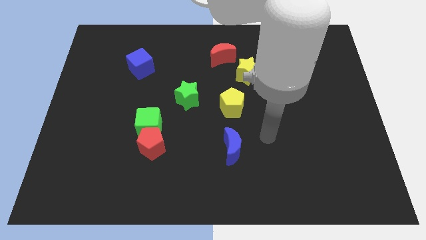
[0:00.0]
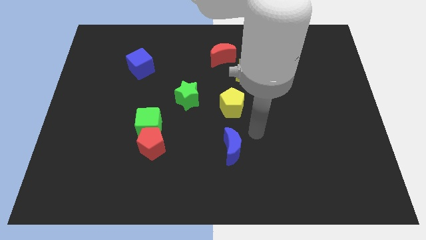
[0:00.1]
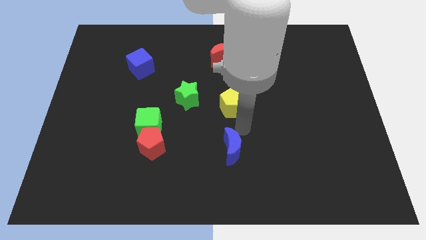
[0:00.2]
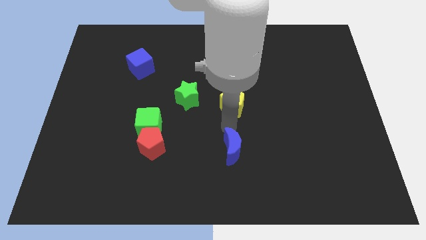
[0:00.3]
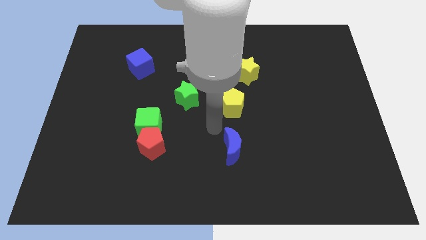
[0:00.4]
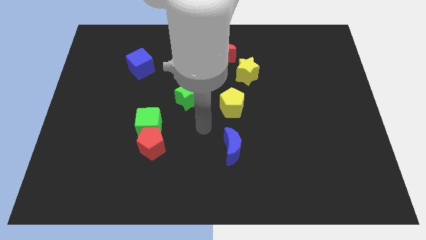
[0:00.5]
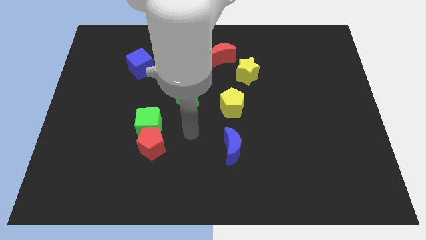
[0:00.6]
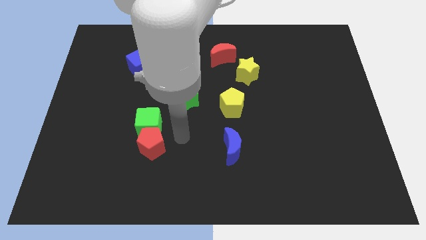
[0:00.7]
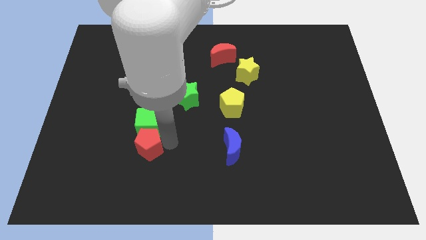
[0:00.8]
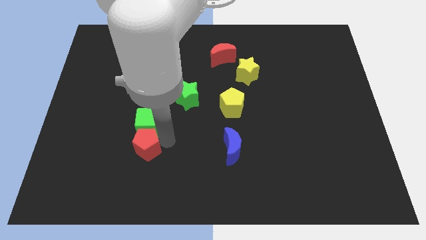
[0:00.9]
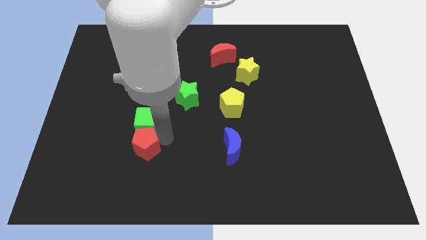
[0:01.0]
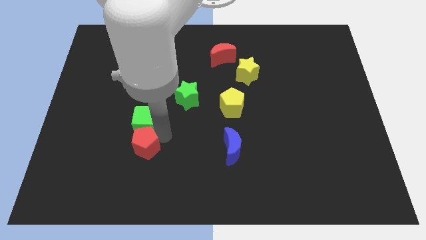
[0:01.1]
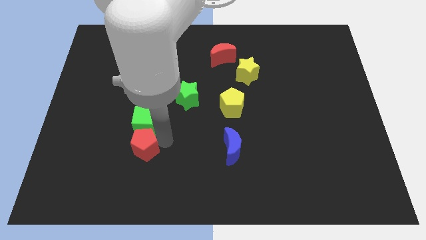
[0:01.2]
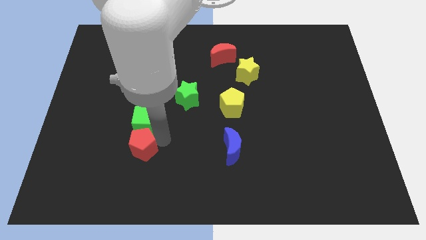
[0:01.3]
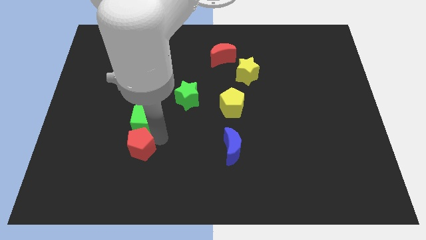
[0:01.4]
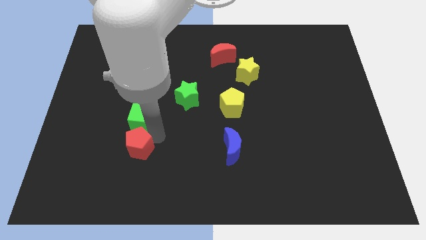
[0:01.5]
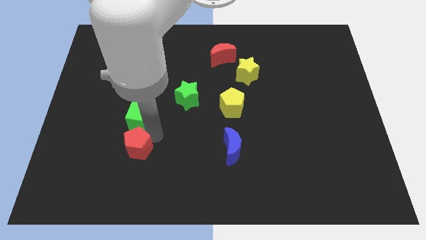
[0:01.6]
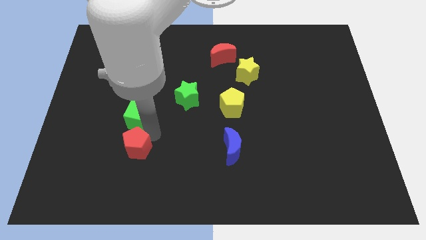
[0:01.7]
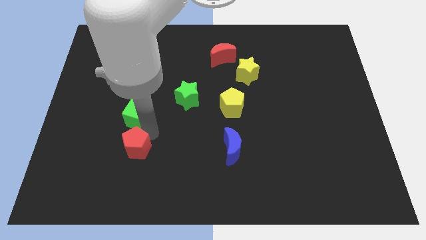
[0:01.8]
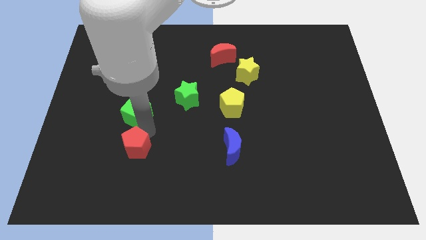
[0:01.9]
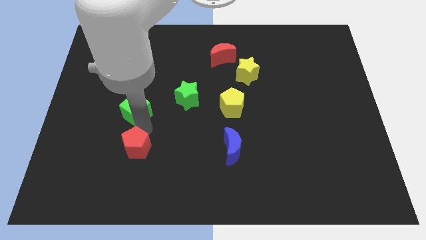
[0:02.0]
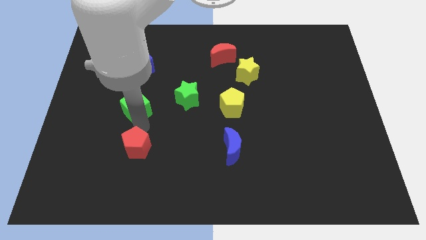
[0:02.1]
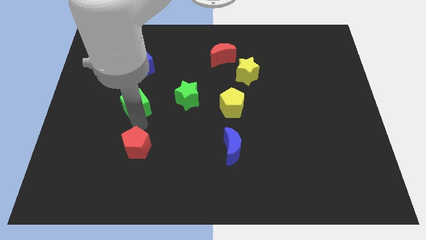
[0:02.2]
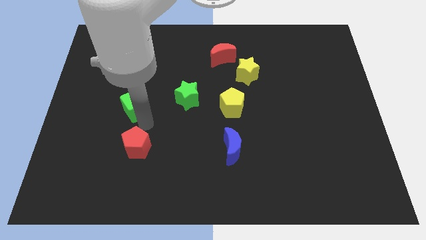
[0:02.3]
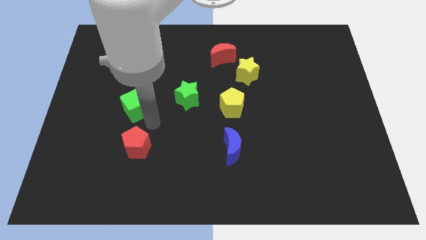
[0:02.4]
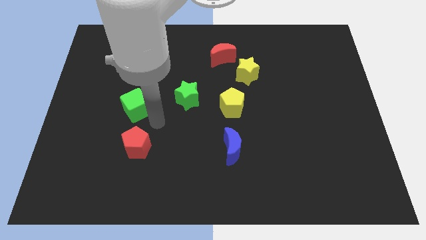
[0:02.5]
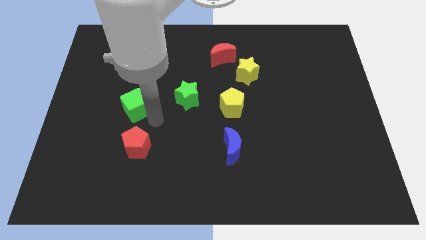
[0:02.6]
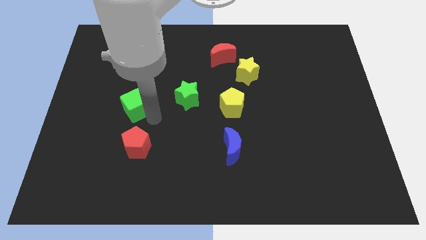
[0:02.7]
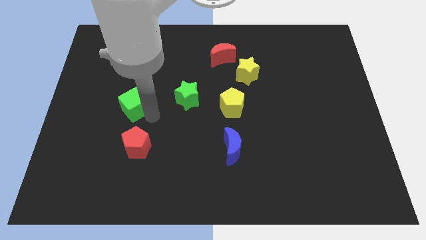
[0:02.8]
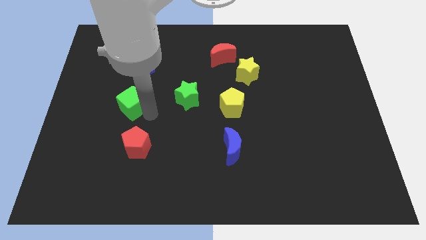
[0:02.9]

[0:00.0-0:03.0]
push the green cube diagonally up and left somewhat

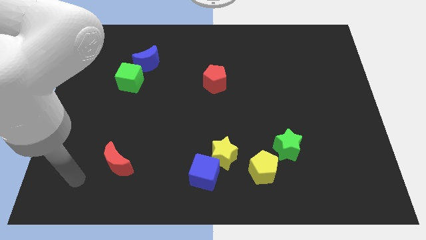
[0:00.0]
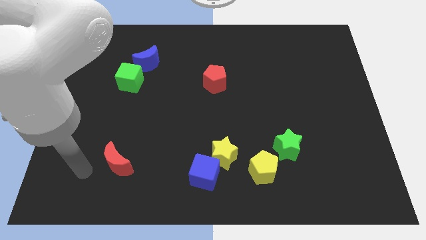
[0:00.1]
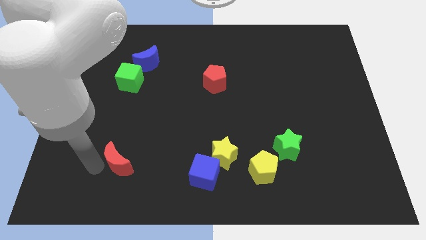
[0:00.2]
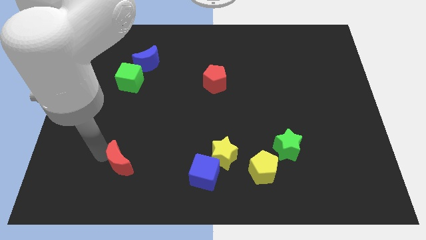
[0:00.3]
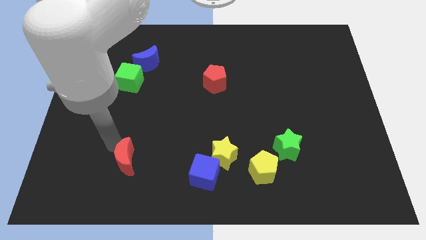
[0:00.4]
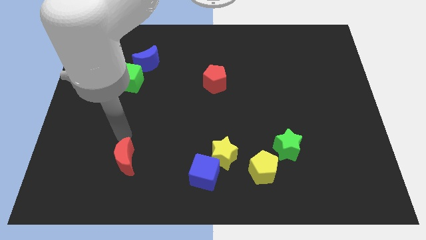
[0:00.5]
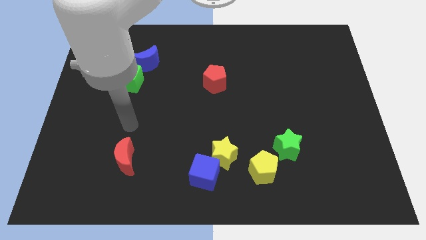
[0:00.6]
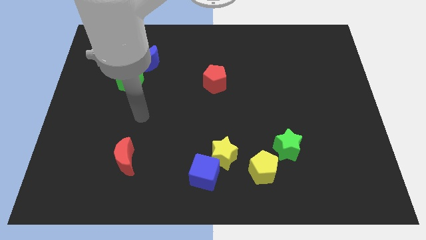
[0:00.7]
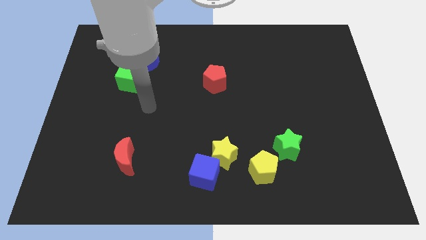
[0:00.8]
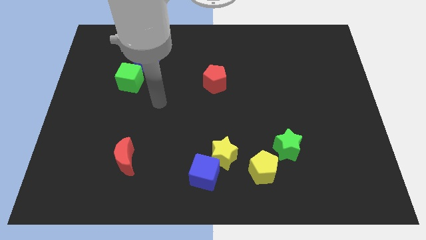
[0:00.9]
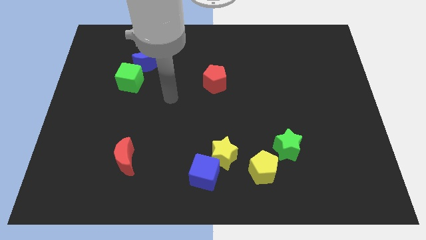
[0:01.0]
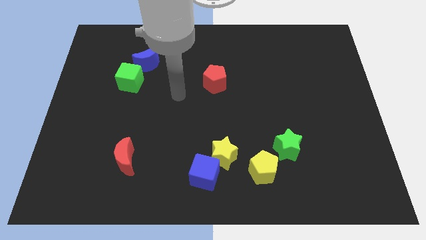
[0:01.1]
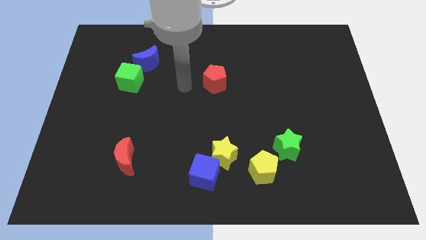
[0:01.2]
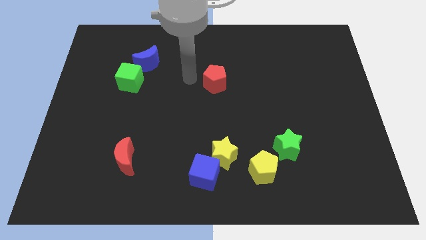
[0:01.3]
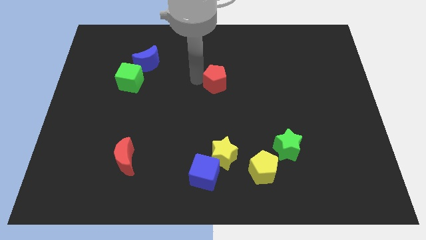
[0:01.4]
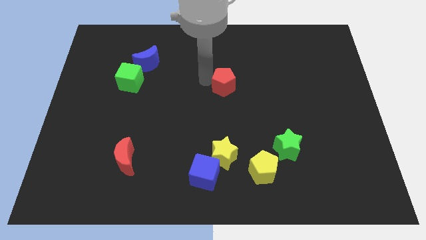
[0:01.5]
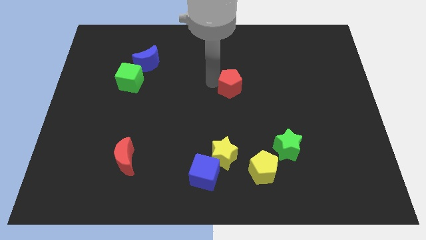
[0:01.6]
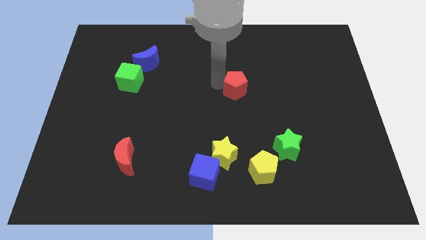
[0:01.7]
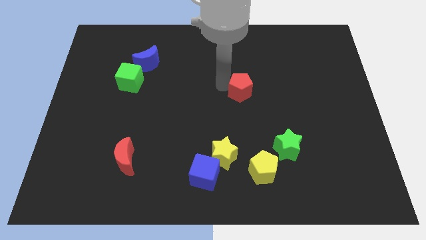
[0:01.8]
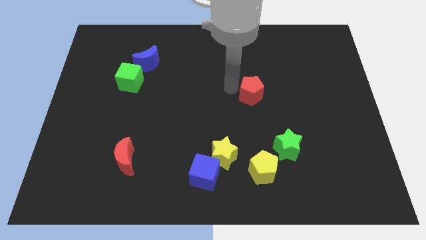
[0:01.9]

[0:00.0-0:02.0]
slightly slide the red pentagon to the right

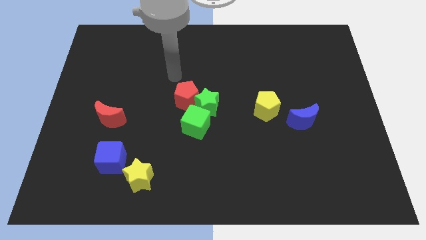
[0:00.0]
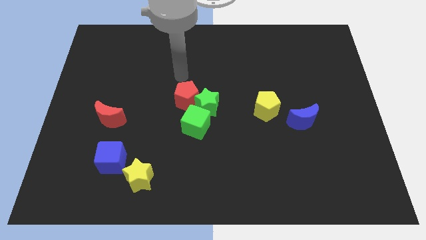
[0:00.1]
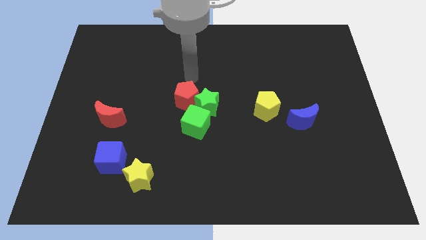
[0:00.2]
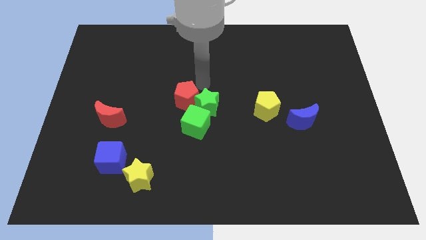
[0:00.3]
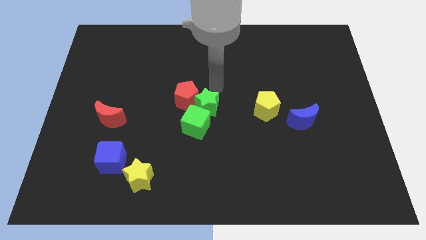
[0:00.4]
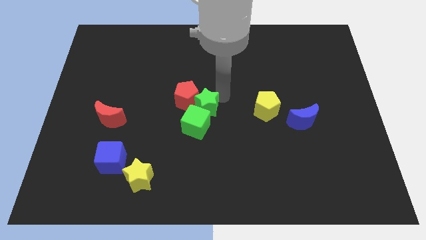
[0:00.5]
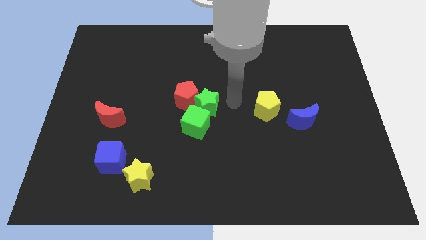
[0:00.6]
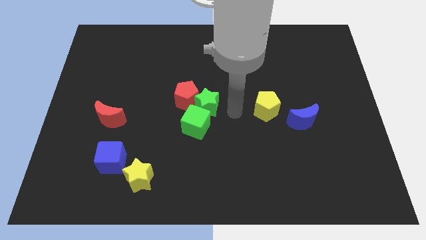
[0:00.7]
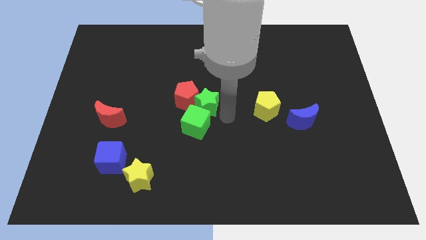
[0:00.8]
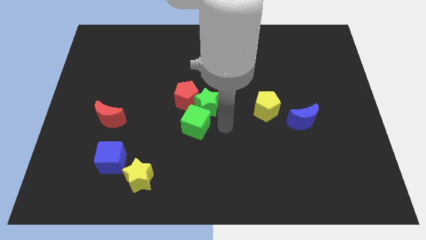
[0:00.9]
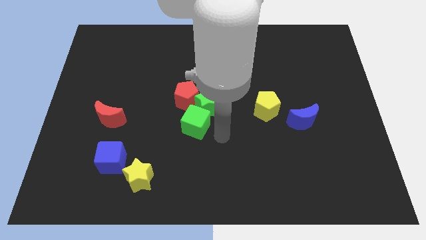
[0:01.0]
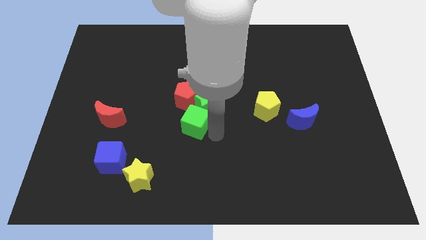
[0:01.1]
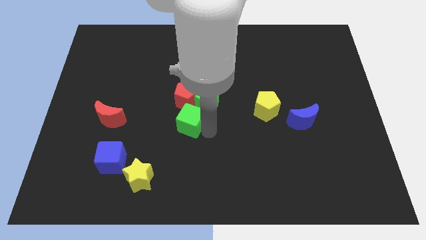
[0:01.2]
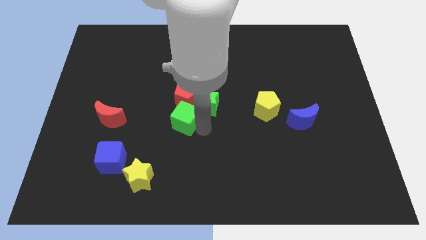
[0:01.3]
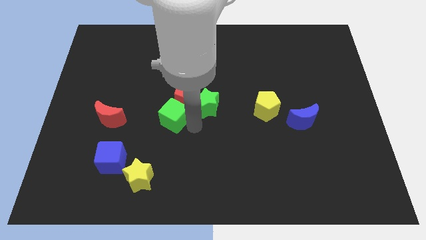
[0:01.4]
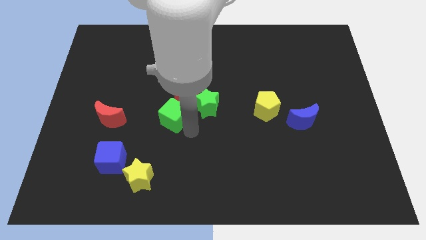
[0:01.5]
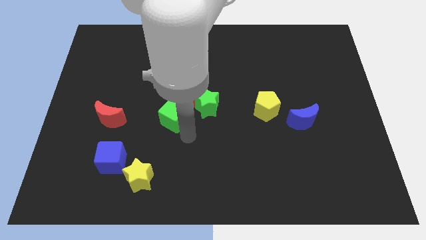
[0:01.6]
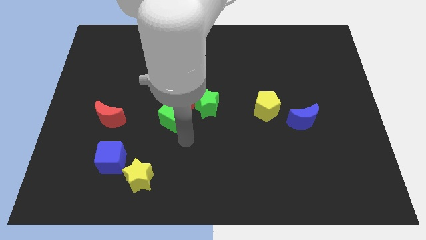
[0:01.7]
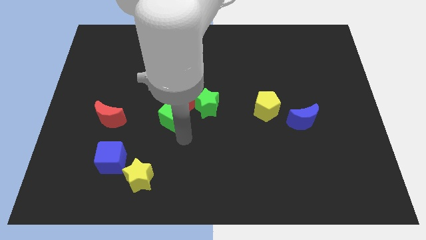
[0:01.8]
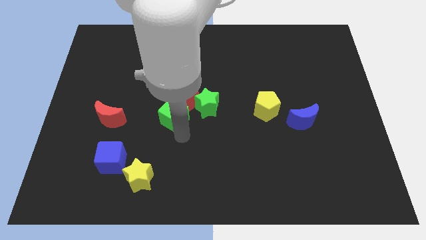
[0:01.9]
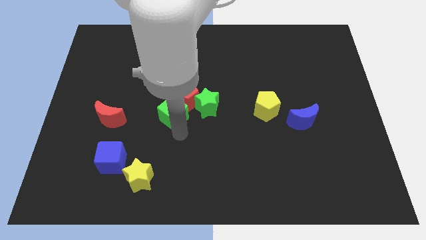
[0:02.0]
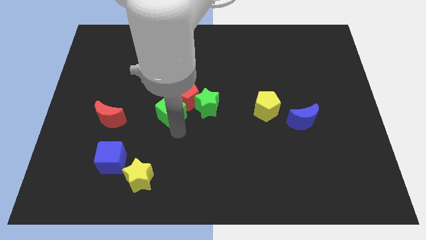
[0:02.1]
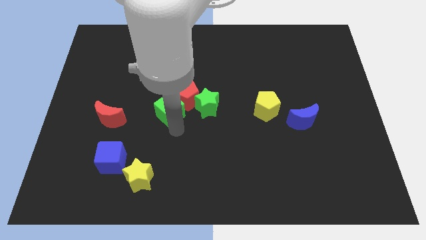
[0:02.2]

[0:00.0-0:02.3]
slide the green cube up and left a bit

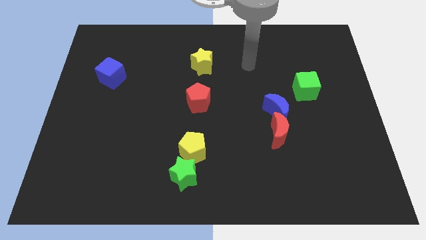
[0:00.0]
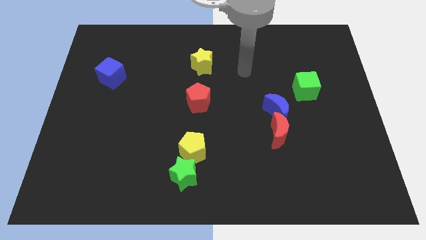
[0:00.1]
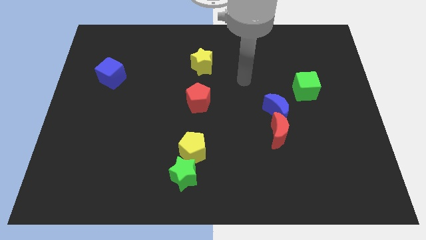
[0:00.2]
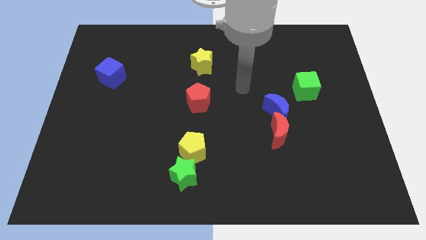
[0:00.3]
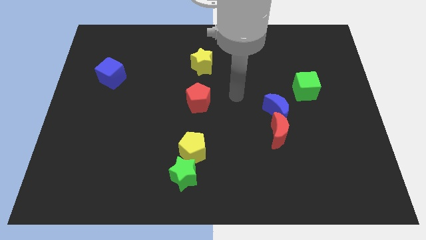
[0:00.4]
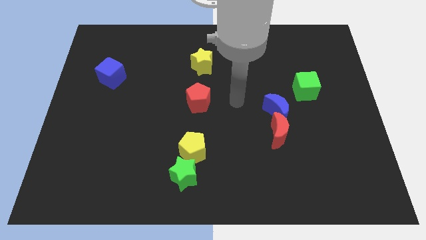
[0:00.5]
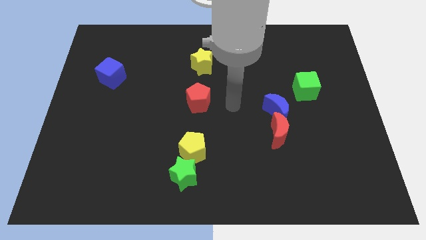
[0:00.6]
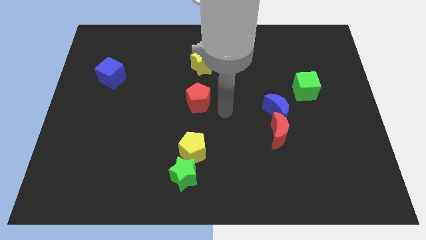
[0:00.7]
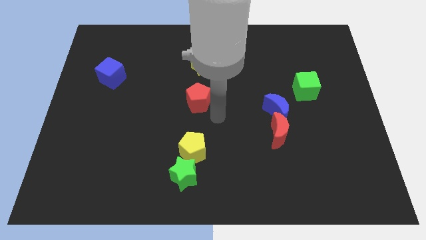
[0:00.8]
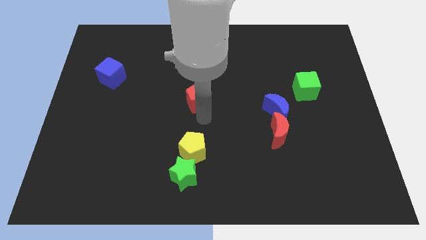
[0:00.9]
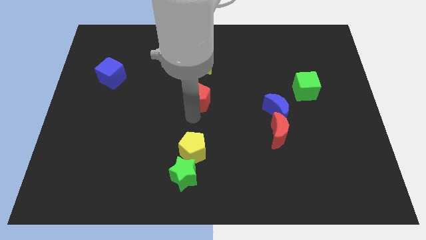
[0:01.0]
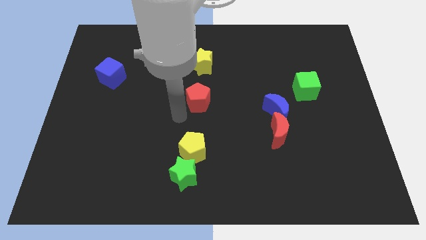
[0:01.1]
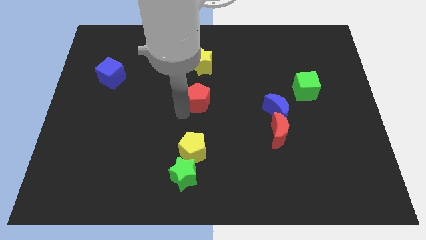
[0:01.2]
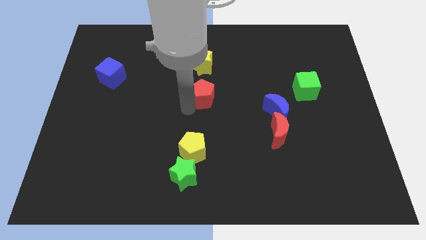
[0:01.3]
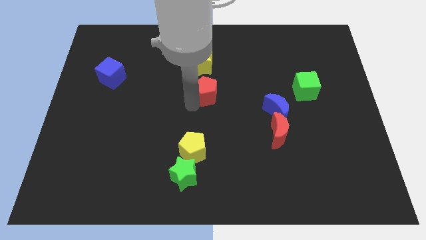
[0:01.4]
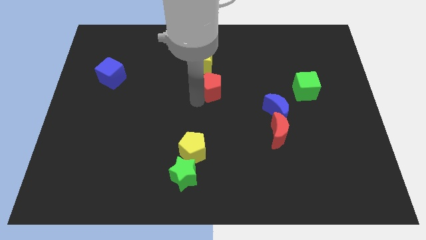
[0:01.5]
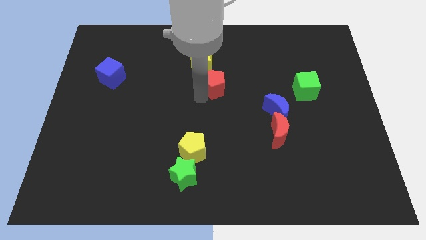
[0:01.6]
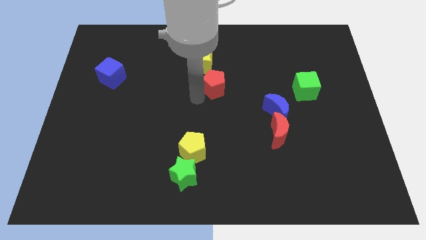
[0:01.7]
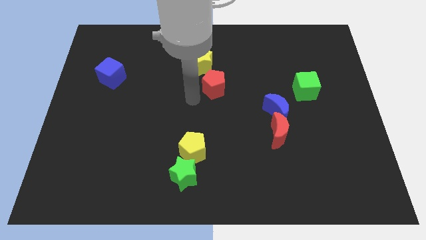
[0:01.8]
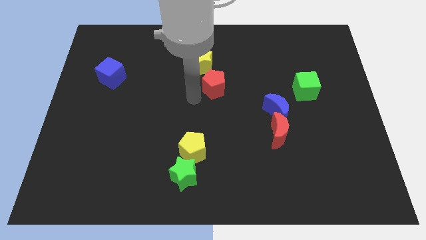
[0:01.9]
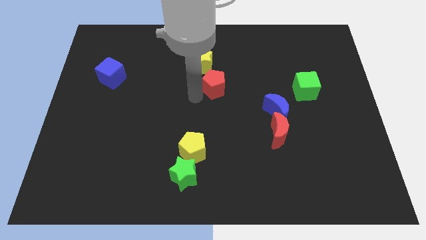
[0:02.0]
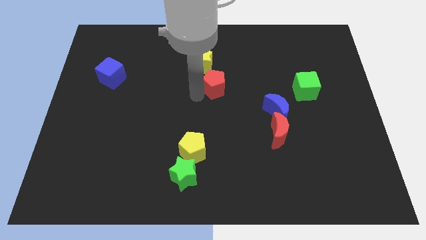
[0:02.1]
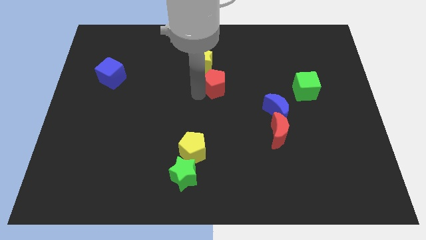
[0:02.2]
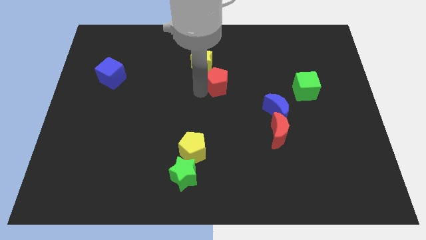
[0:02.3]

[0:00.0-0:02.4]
push the red pentagon a bit up and to the right
